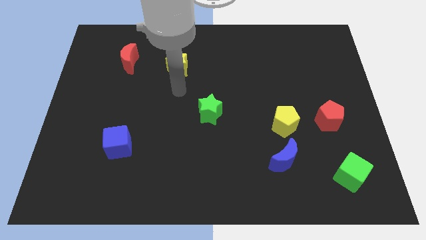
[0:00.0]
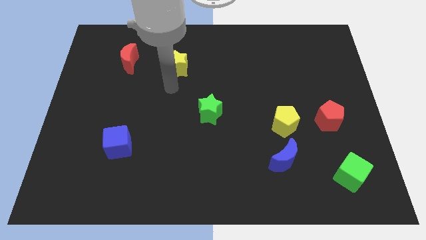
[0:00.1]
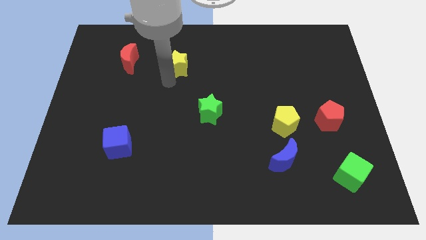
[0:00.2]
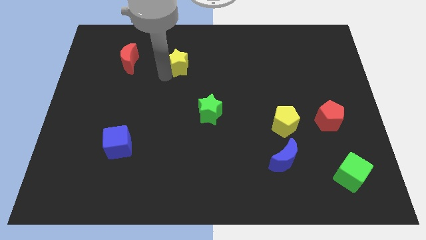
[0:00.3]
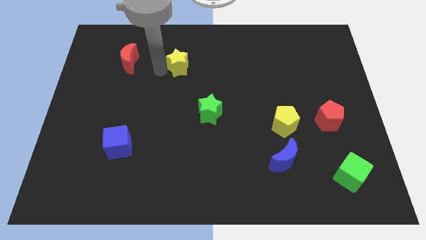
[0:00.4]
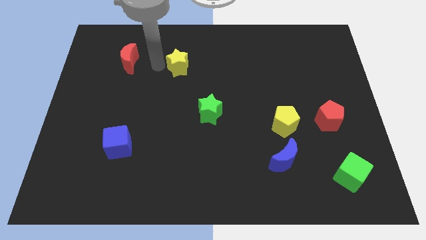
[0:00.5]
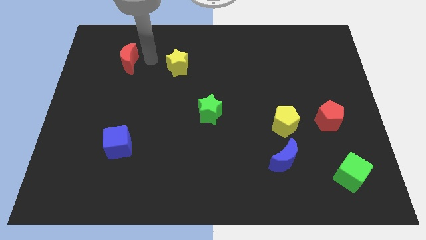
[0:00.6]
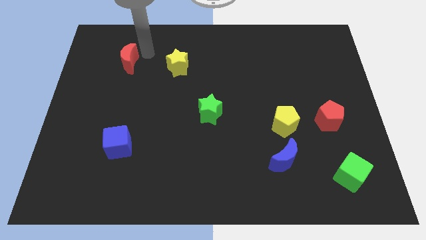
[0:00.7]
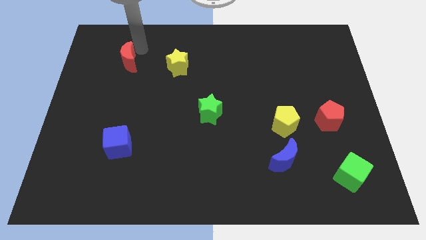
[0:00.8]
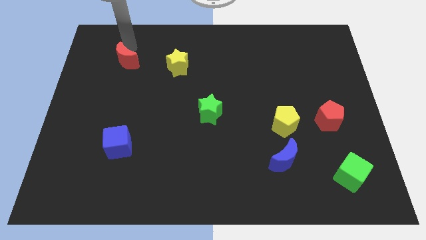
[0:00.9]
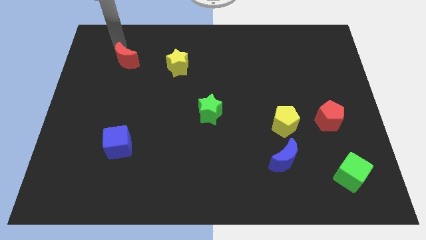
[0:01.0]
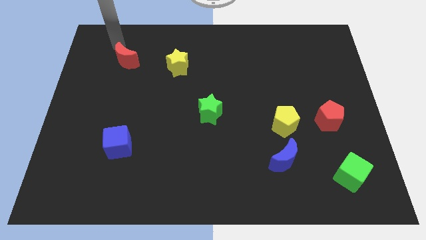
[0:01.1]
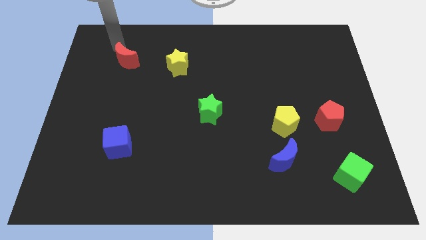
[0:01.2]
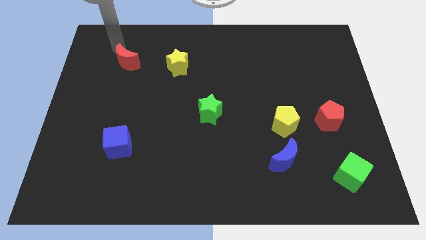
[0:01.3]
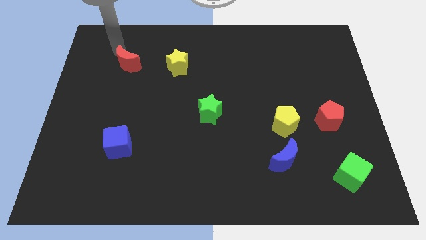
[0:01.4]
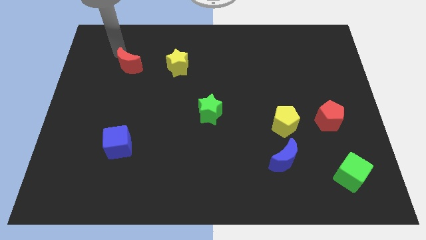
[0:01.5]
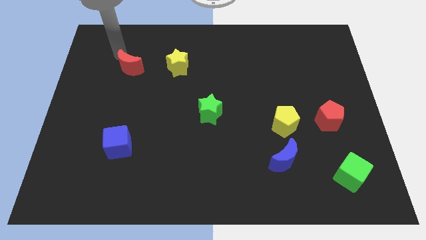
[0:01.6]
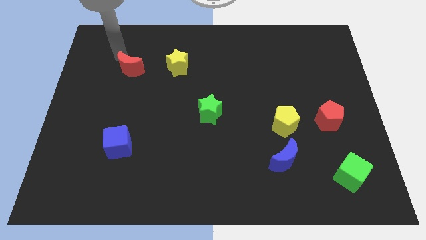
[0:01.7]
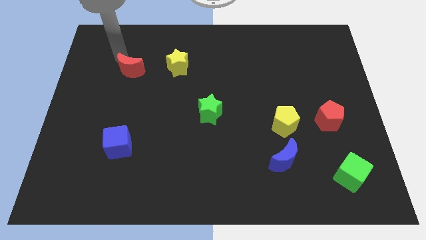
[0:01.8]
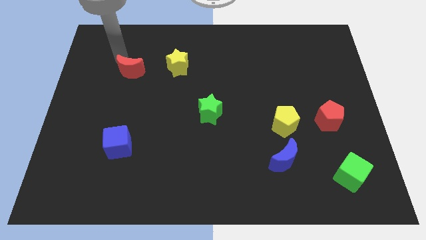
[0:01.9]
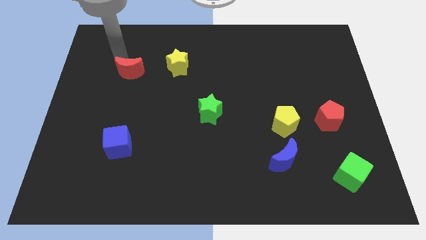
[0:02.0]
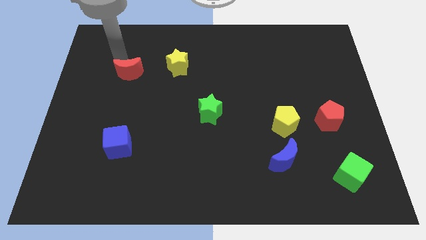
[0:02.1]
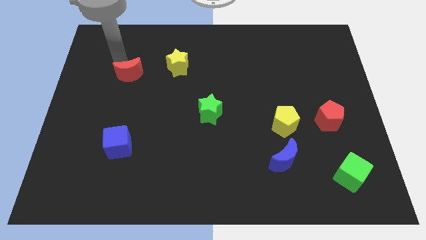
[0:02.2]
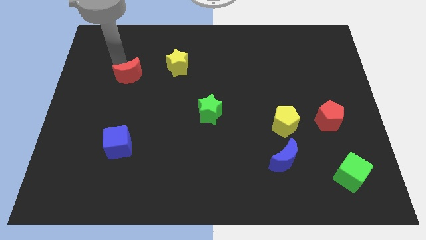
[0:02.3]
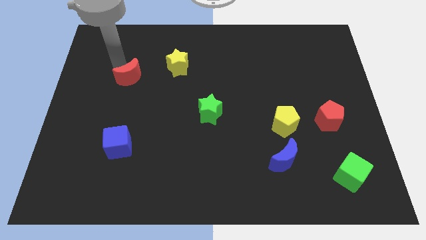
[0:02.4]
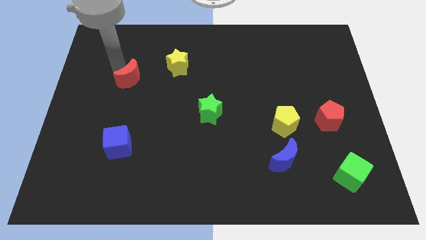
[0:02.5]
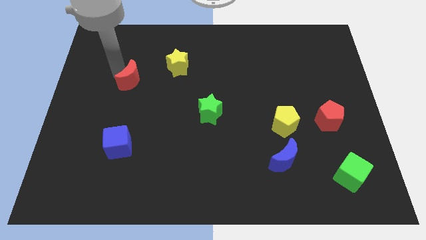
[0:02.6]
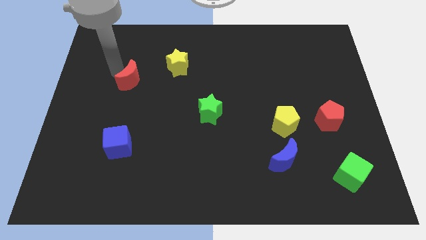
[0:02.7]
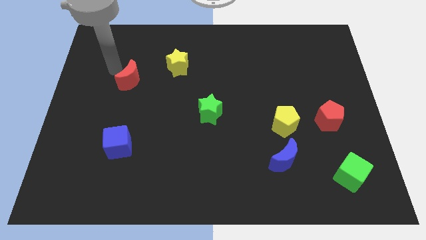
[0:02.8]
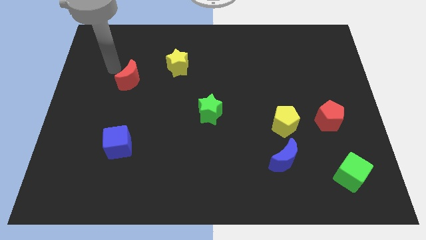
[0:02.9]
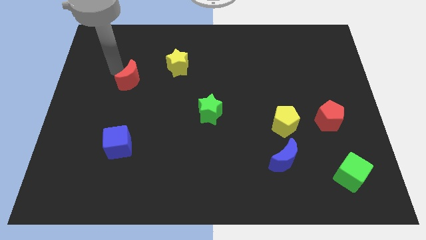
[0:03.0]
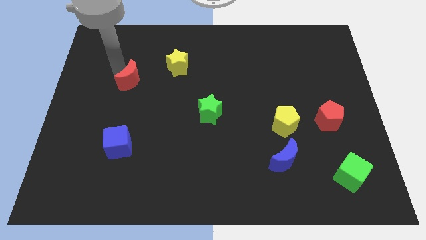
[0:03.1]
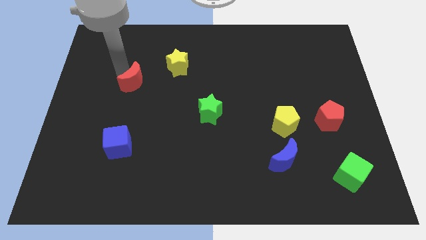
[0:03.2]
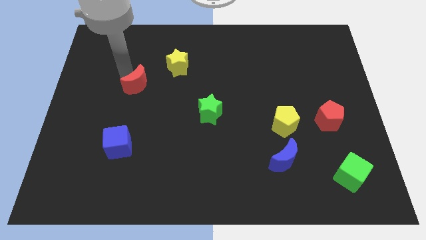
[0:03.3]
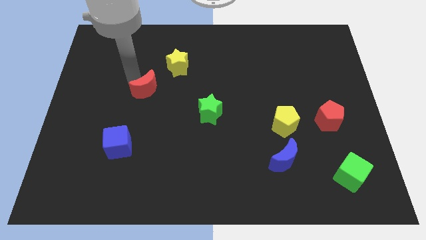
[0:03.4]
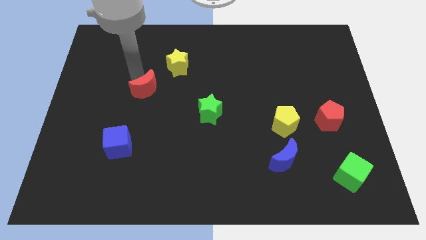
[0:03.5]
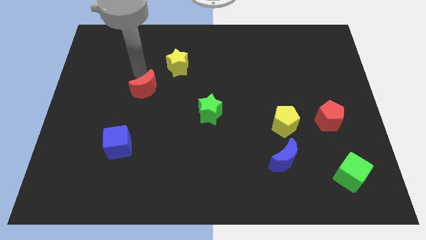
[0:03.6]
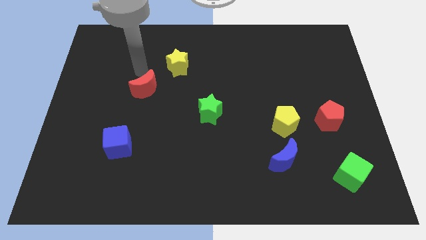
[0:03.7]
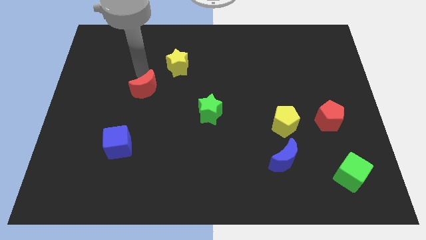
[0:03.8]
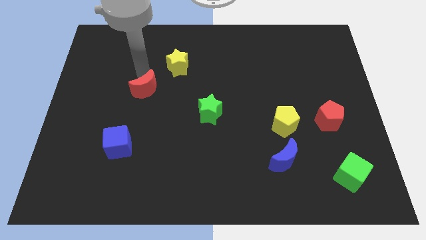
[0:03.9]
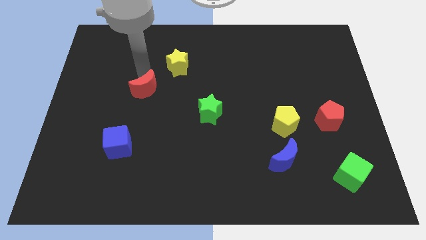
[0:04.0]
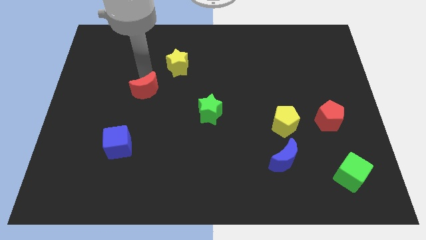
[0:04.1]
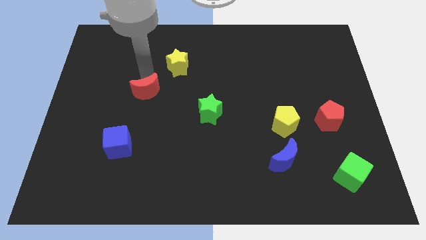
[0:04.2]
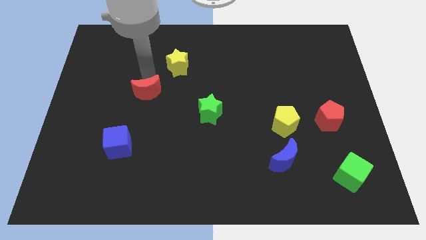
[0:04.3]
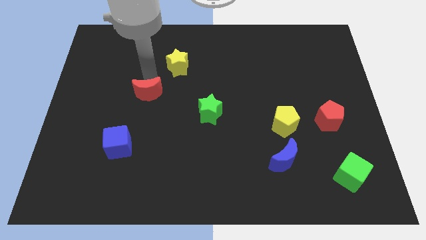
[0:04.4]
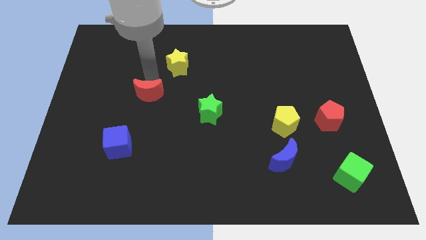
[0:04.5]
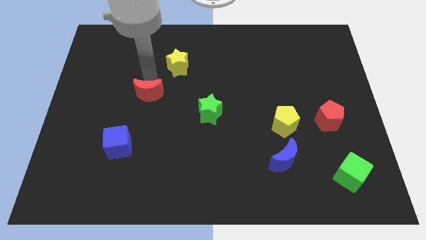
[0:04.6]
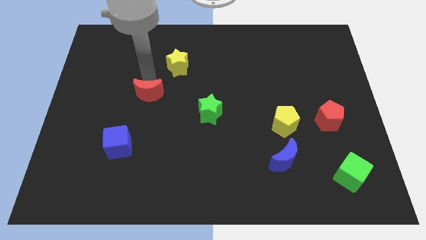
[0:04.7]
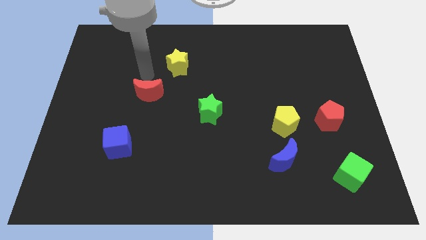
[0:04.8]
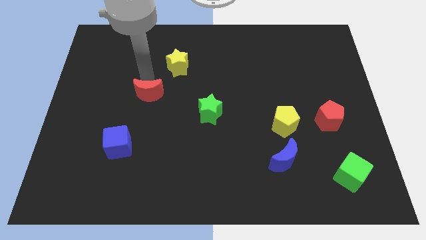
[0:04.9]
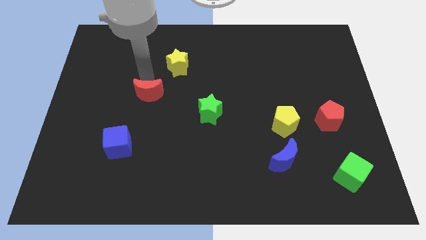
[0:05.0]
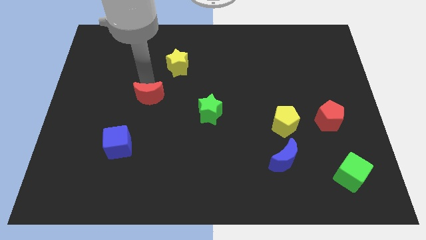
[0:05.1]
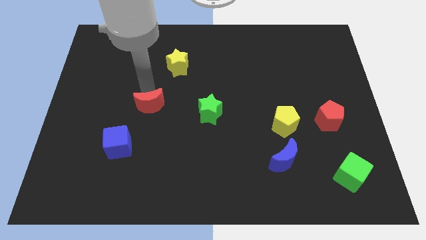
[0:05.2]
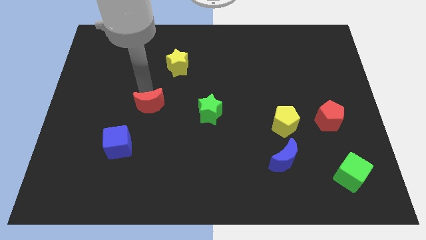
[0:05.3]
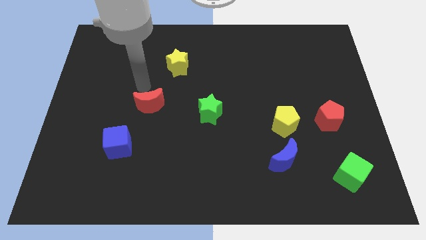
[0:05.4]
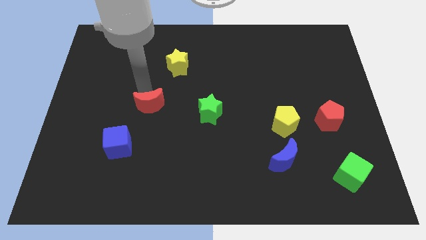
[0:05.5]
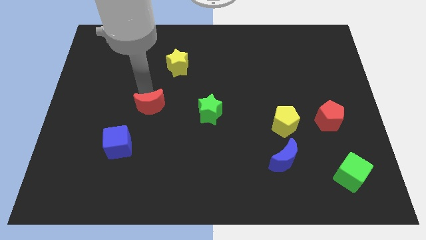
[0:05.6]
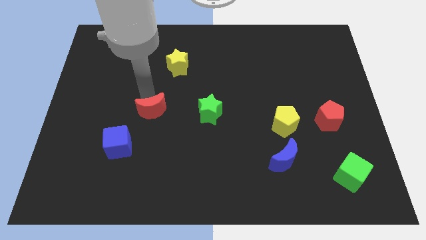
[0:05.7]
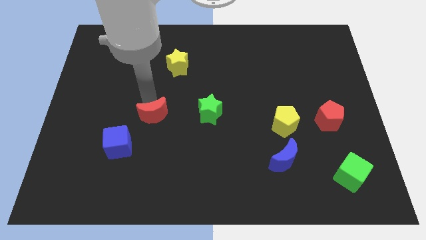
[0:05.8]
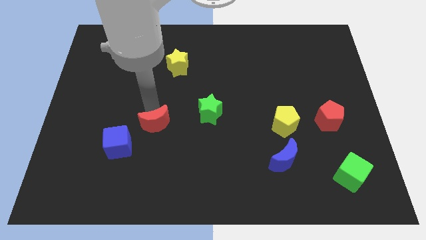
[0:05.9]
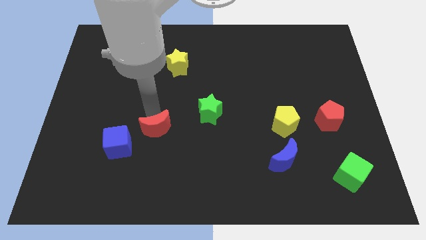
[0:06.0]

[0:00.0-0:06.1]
move the red moon to the right of the blue cube

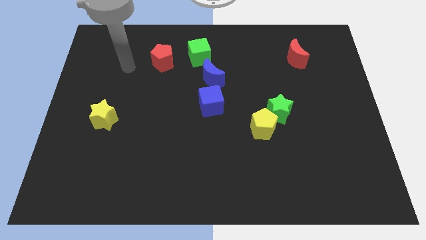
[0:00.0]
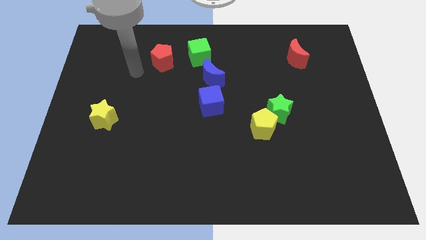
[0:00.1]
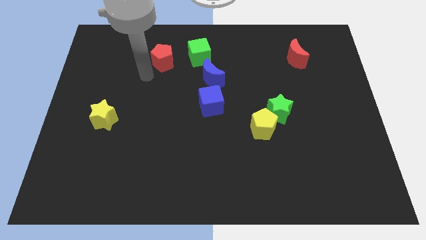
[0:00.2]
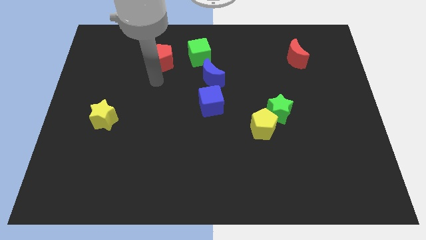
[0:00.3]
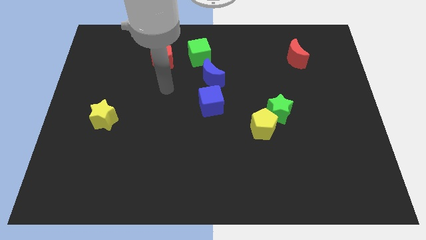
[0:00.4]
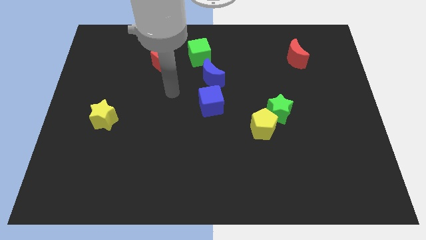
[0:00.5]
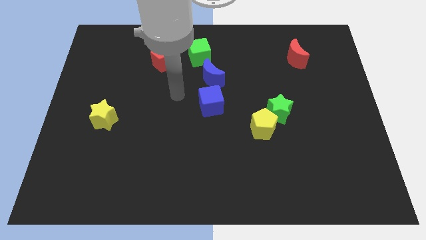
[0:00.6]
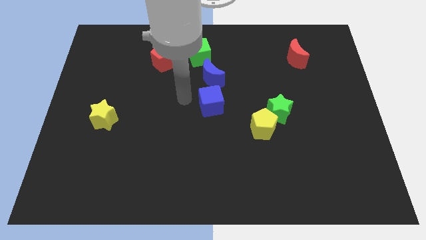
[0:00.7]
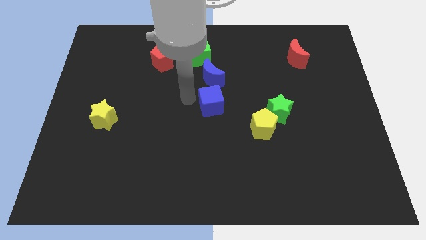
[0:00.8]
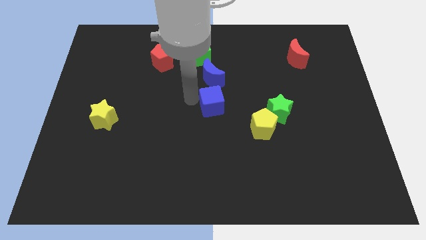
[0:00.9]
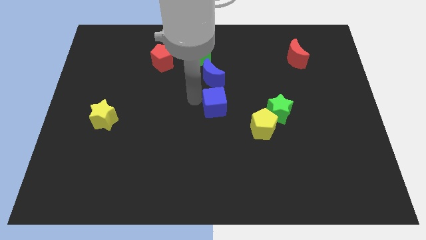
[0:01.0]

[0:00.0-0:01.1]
move the blue cube to the top left of the yellow pentagon
